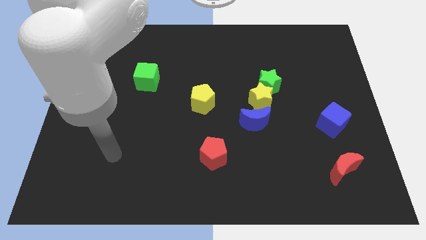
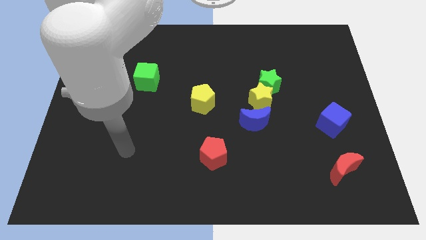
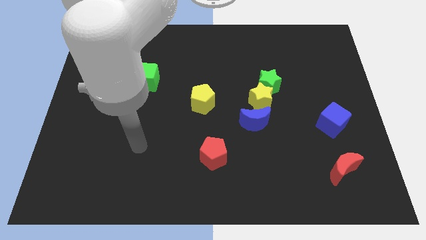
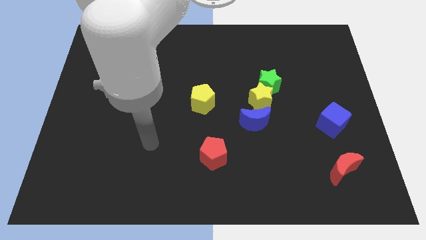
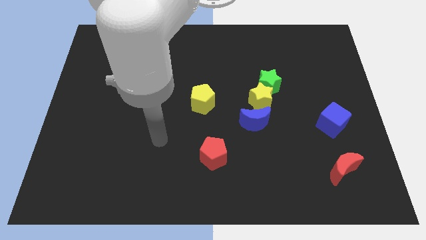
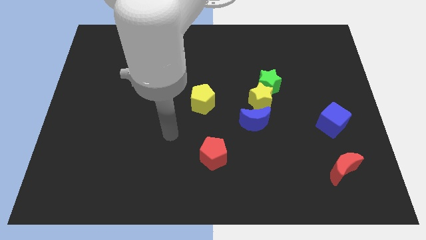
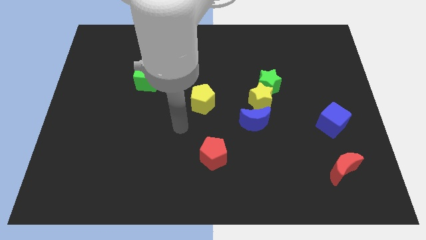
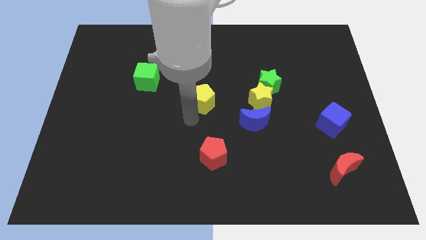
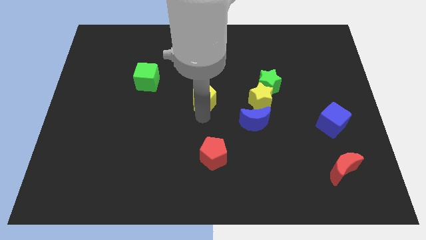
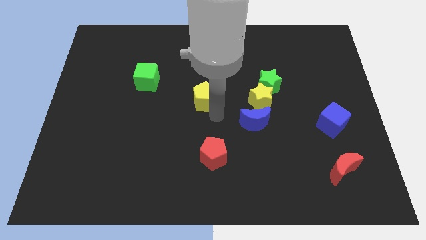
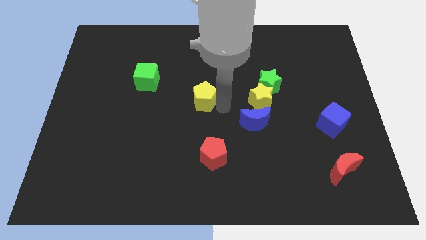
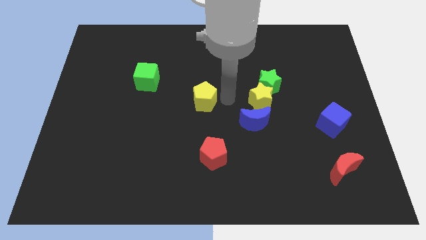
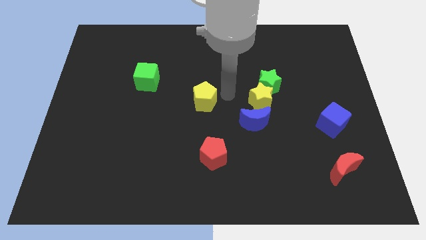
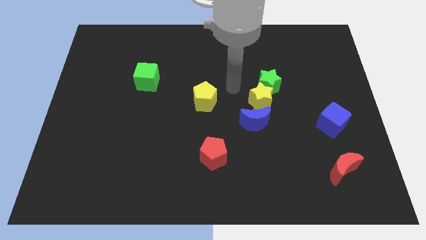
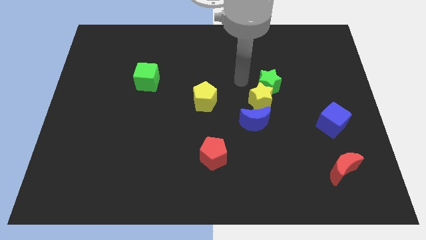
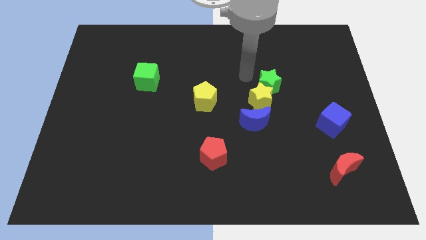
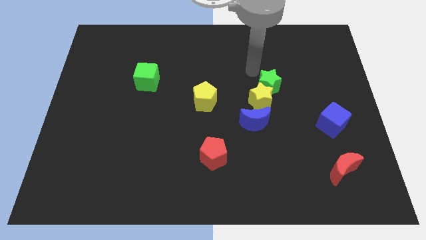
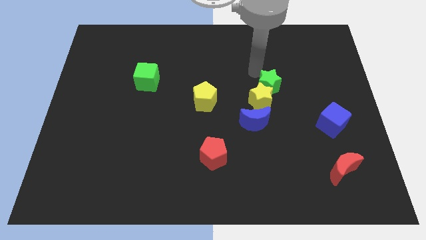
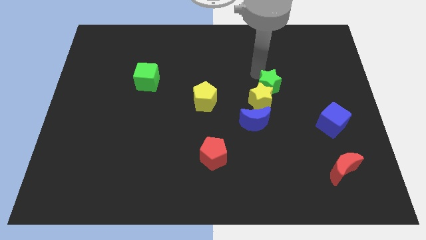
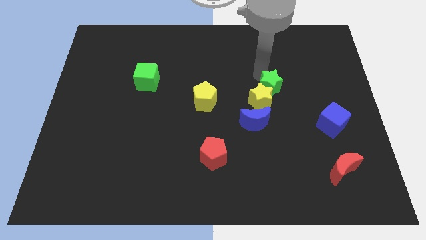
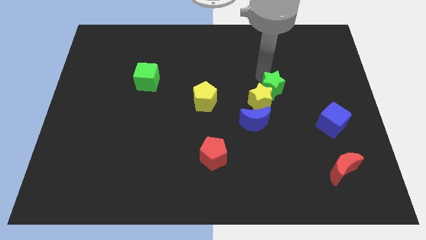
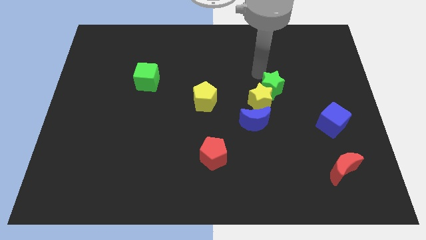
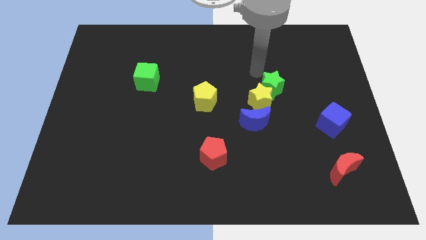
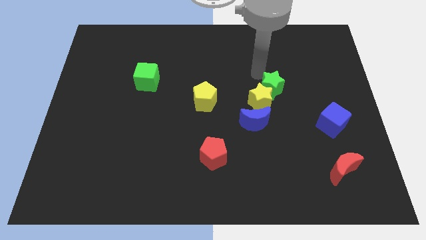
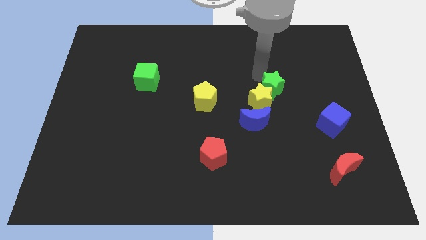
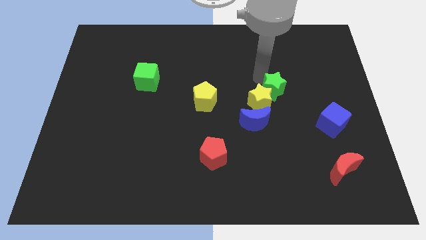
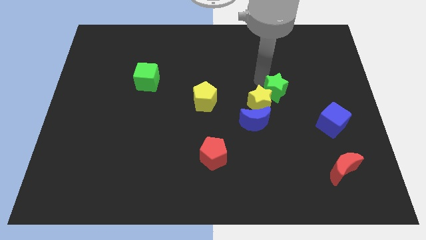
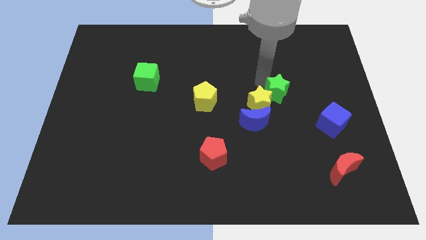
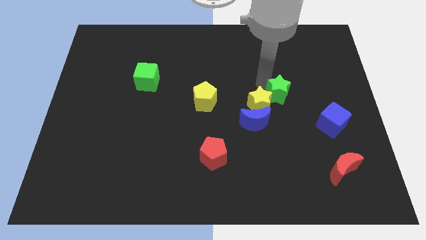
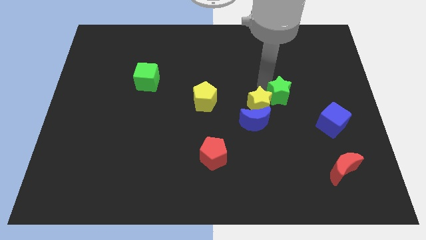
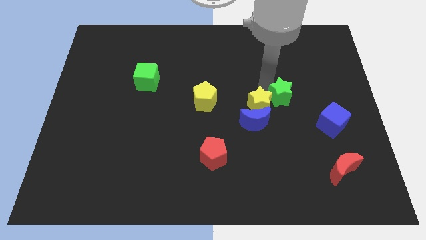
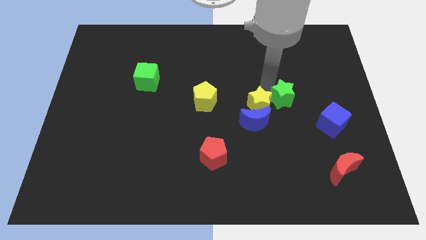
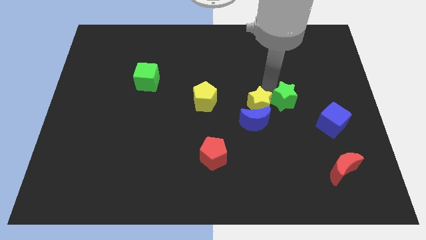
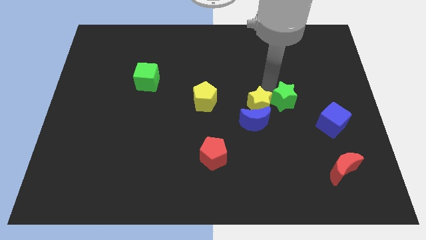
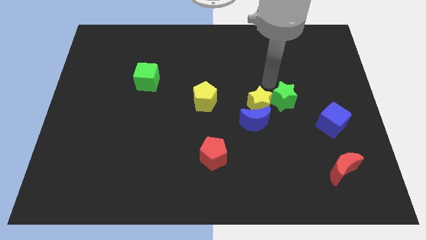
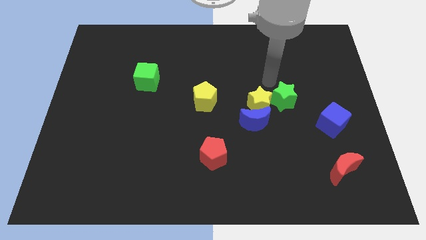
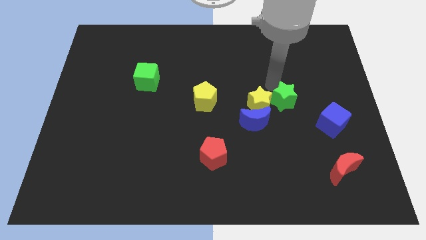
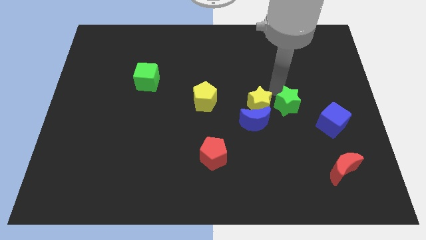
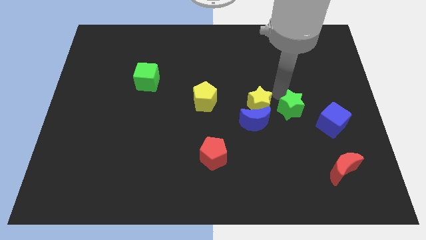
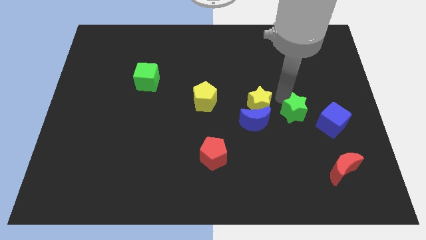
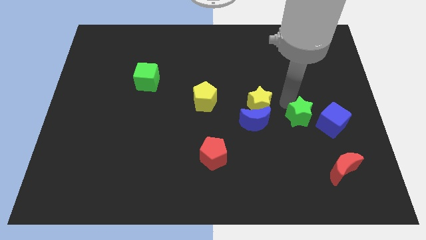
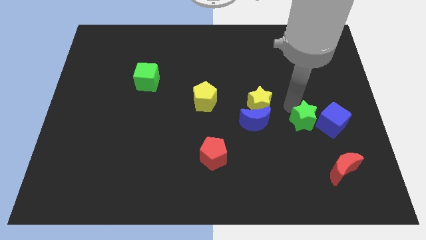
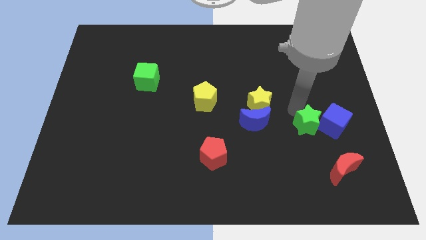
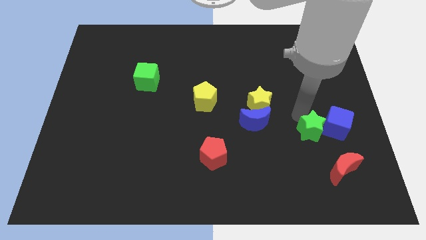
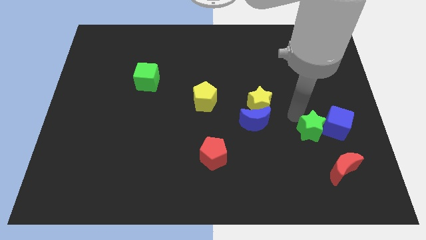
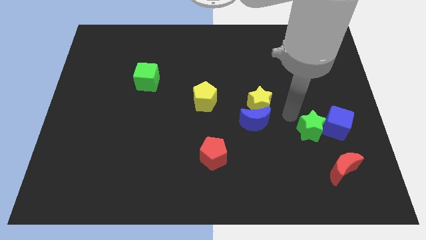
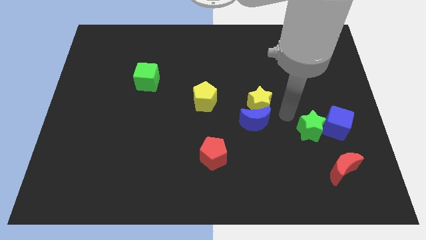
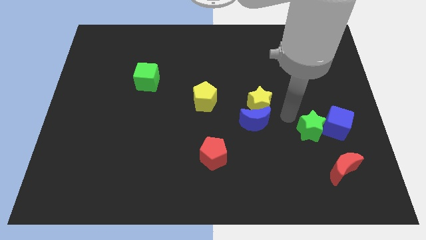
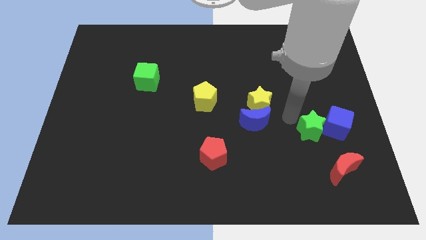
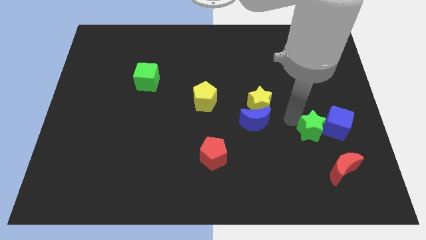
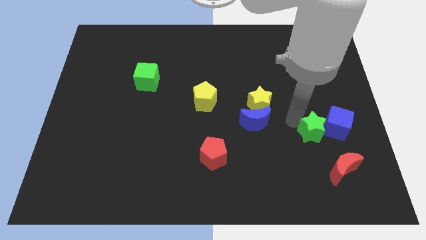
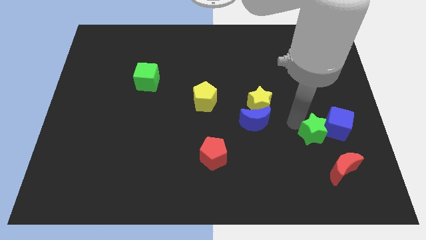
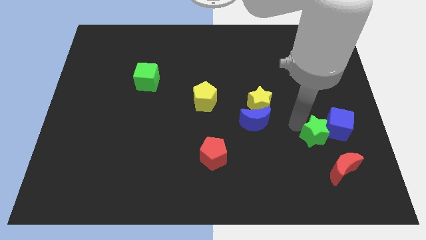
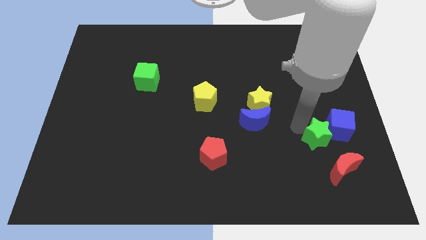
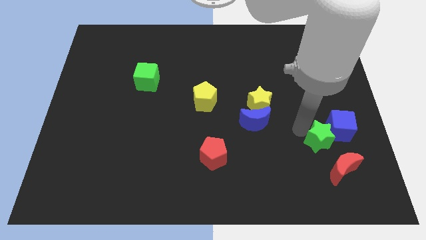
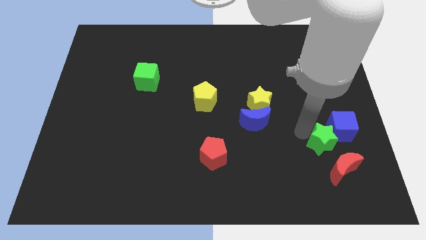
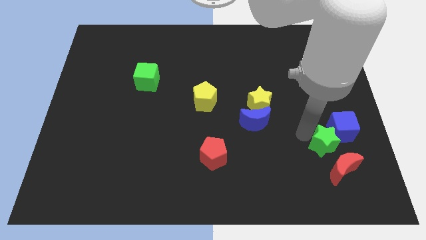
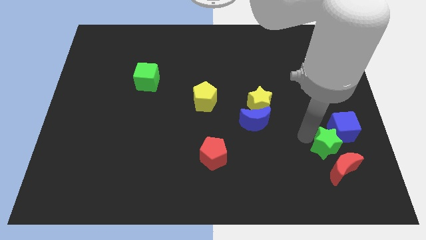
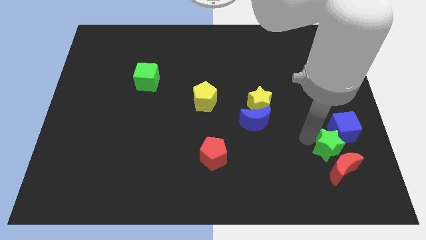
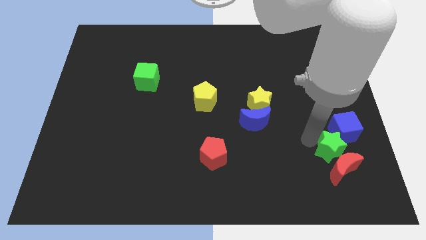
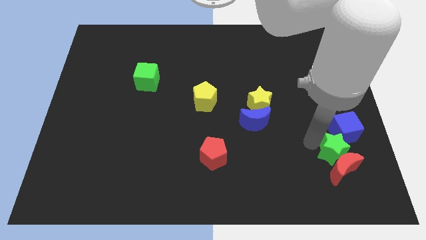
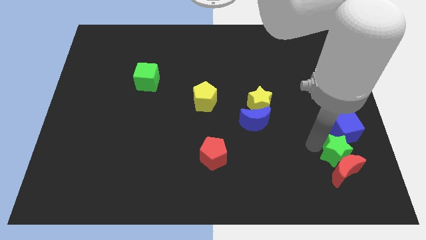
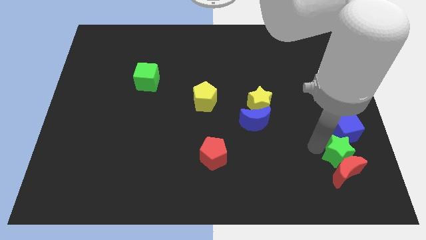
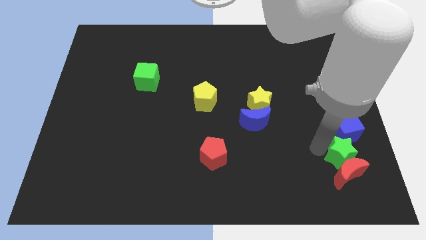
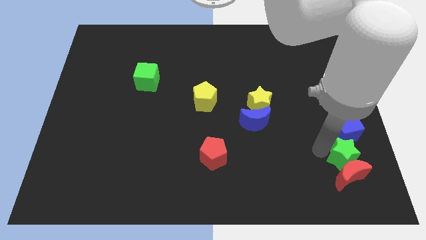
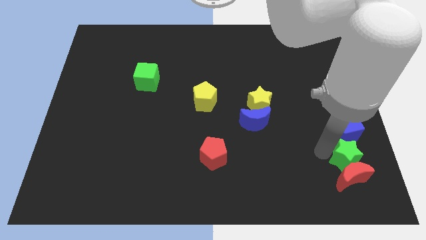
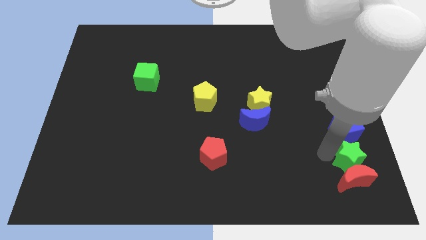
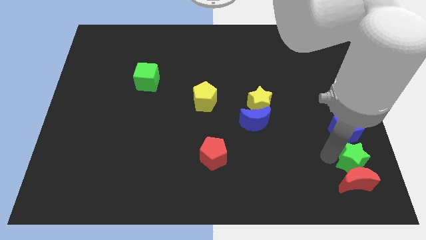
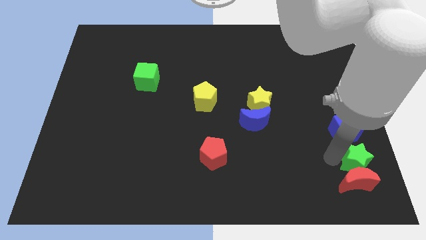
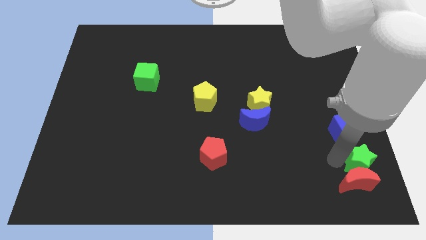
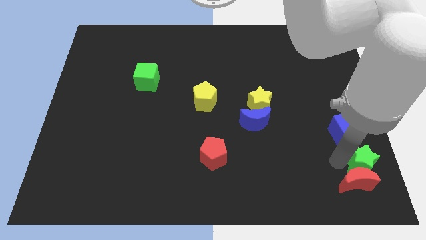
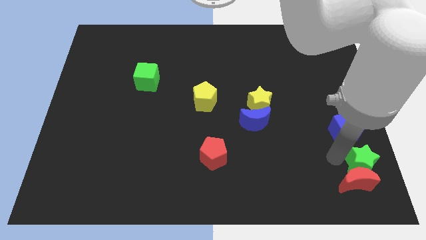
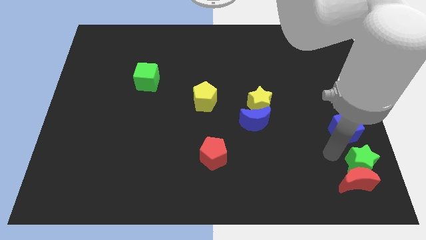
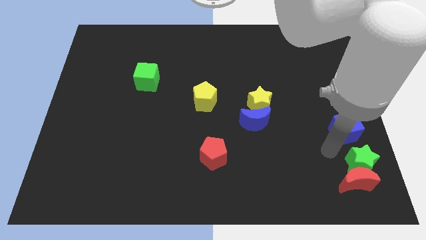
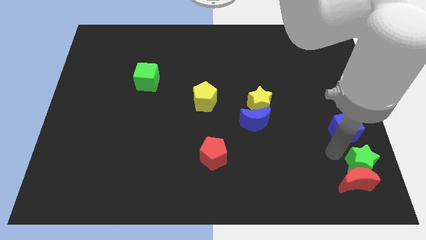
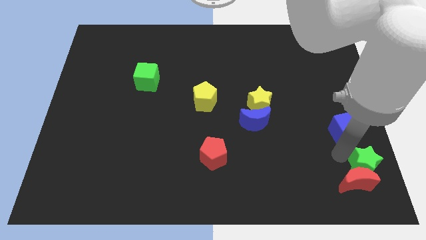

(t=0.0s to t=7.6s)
put the green star to the bottom right
